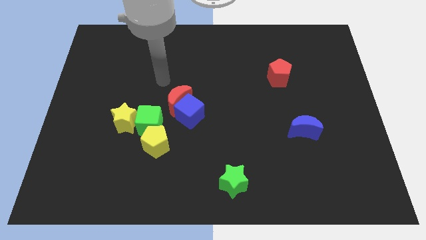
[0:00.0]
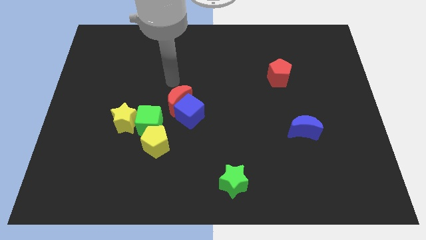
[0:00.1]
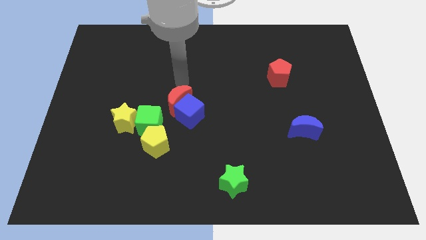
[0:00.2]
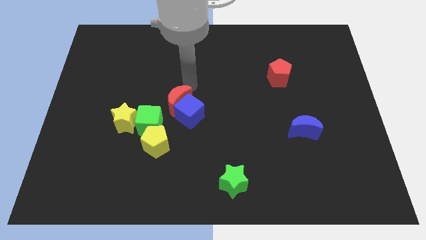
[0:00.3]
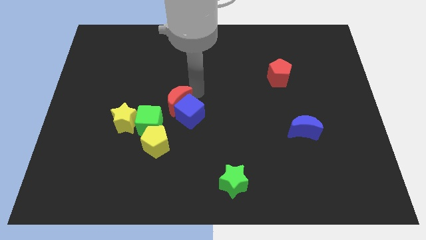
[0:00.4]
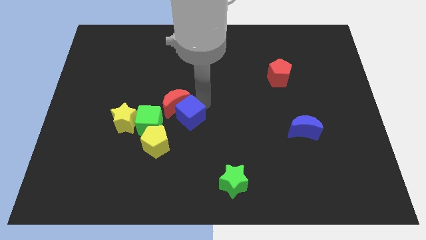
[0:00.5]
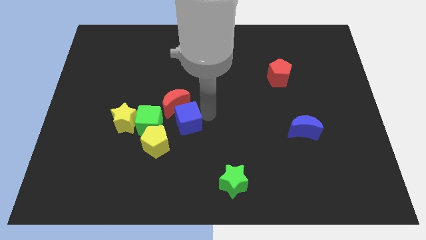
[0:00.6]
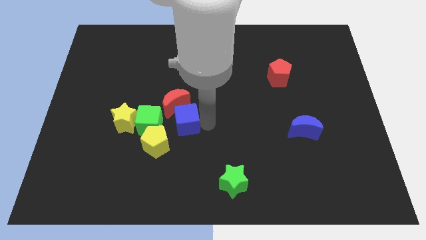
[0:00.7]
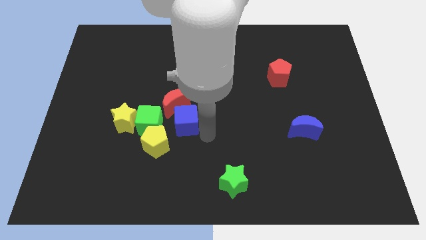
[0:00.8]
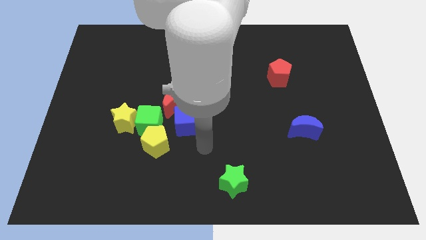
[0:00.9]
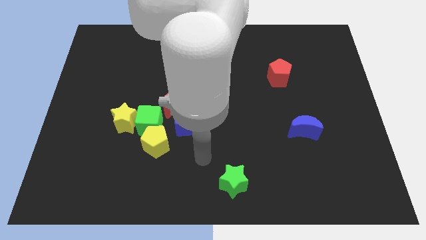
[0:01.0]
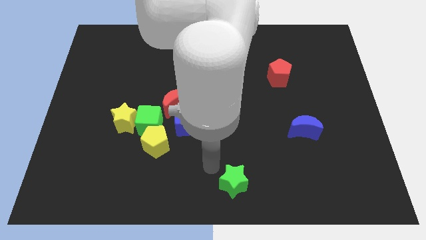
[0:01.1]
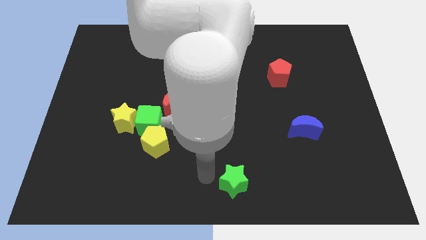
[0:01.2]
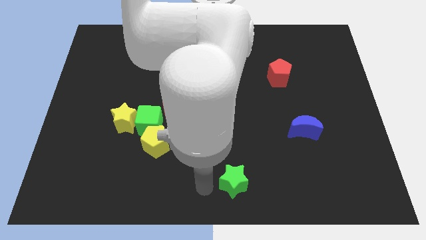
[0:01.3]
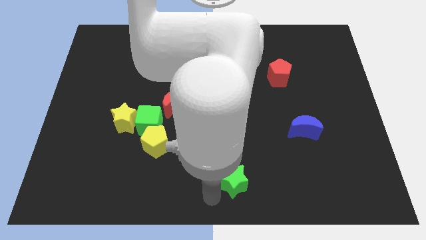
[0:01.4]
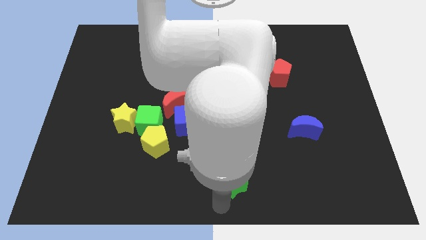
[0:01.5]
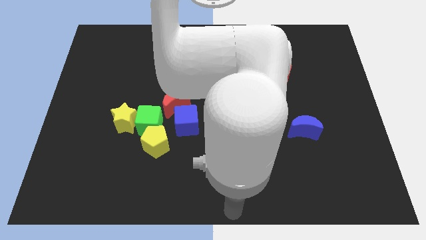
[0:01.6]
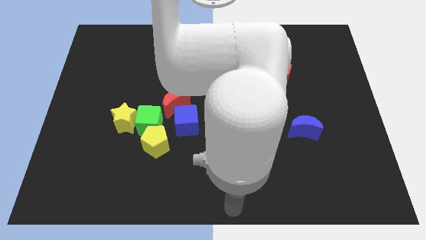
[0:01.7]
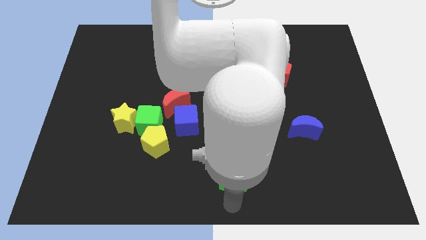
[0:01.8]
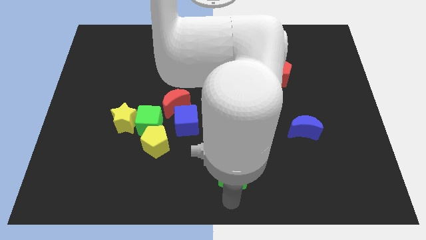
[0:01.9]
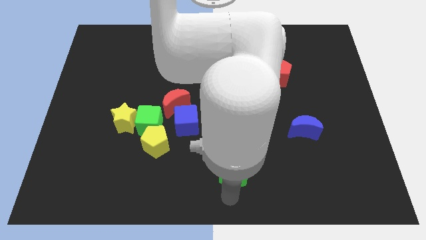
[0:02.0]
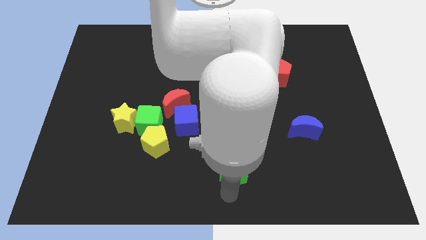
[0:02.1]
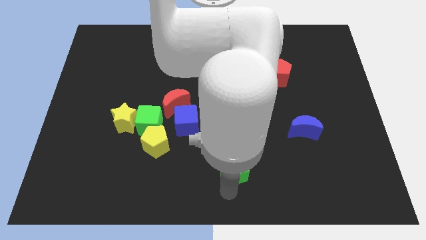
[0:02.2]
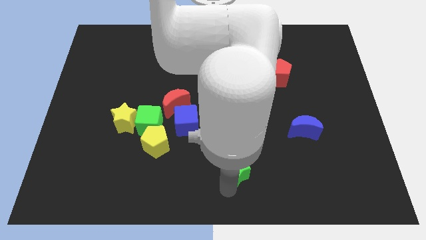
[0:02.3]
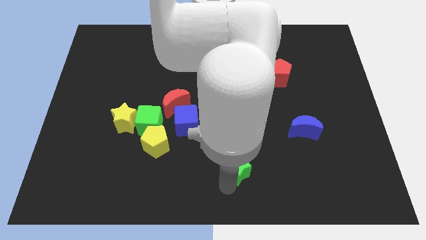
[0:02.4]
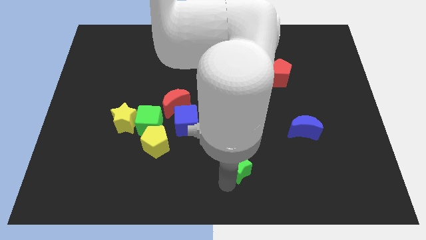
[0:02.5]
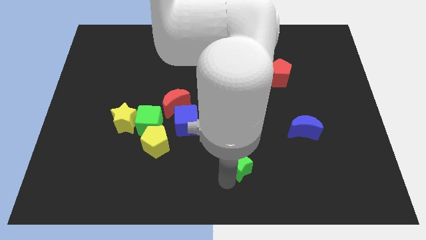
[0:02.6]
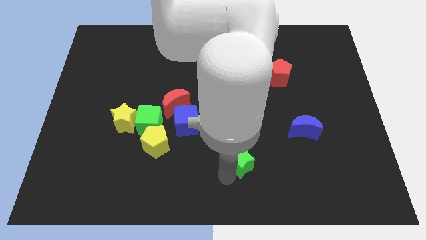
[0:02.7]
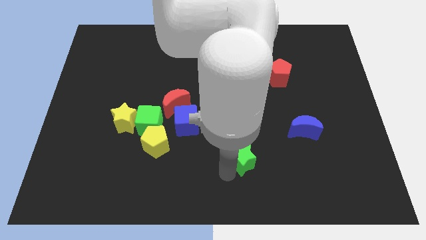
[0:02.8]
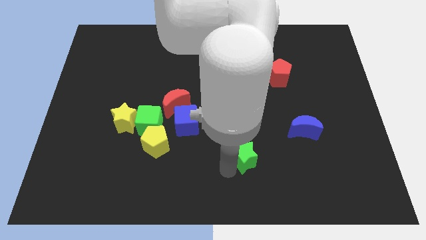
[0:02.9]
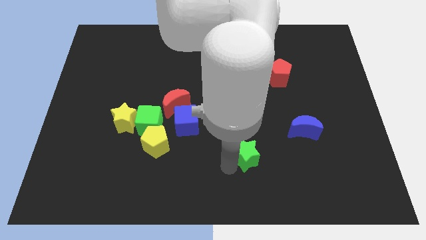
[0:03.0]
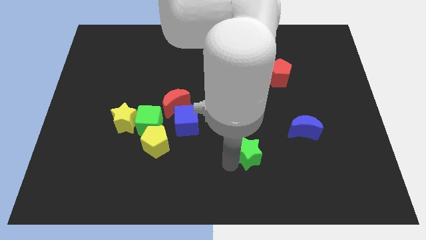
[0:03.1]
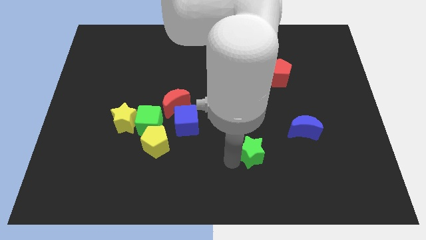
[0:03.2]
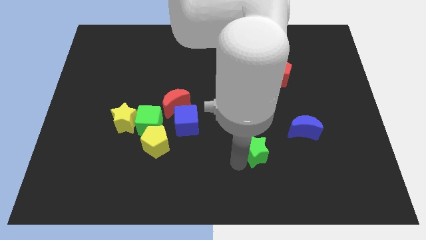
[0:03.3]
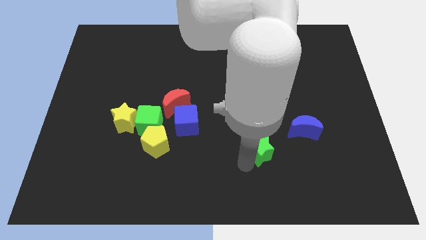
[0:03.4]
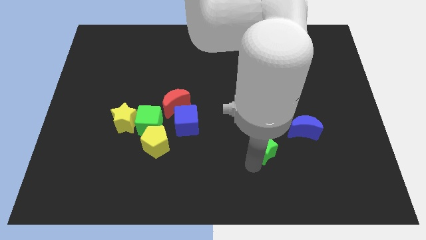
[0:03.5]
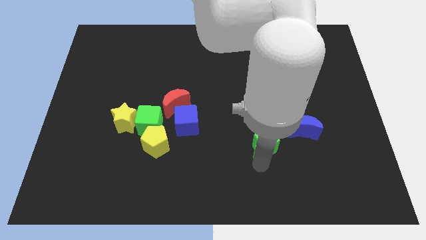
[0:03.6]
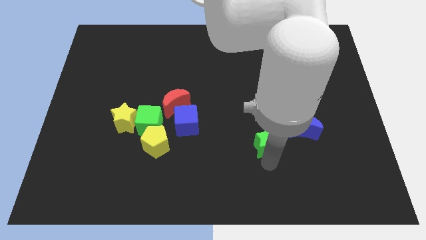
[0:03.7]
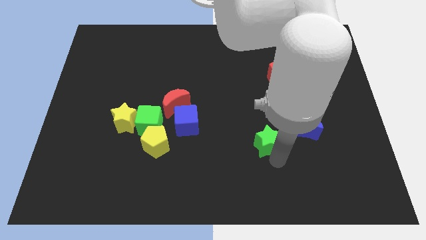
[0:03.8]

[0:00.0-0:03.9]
push the green star a little upwards

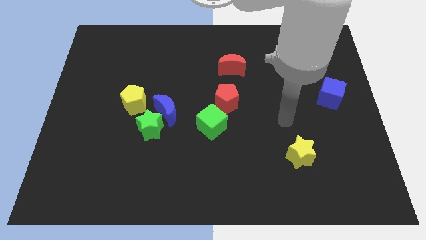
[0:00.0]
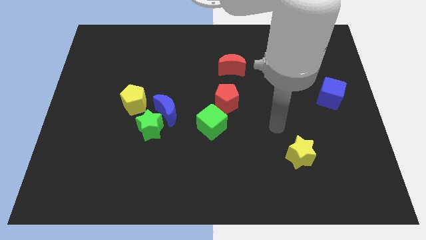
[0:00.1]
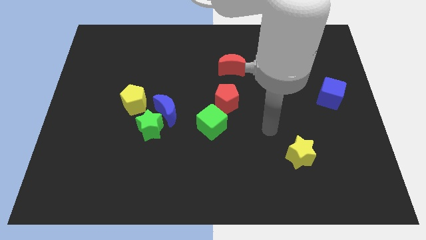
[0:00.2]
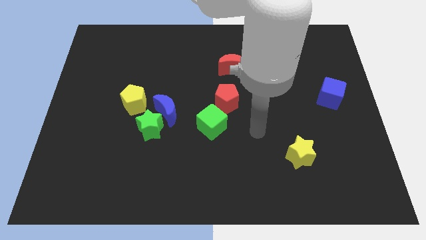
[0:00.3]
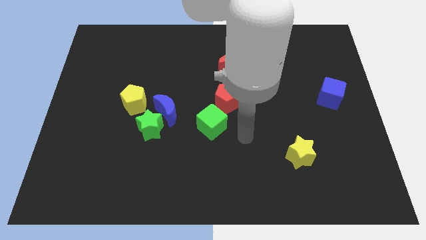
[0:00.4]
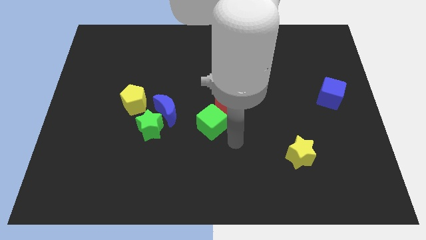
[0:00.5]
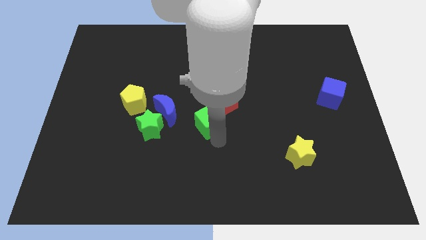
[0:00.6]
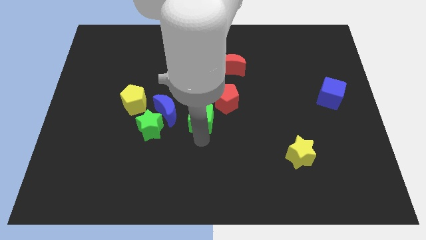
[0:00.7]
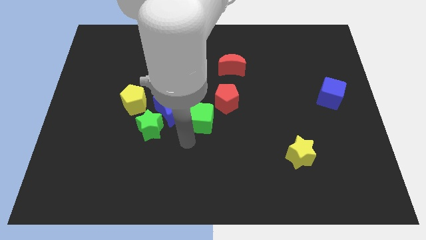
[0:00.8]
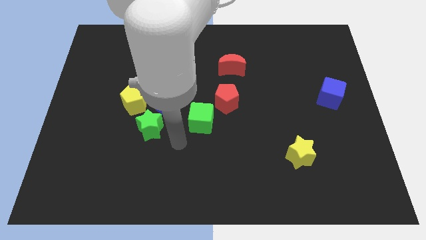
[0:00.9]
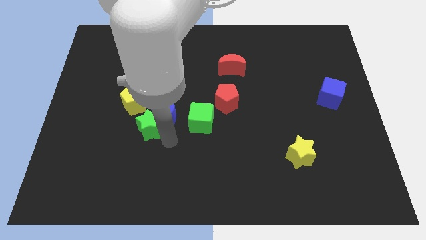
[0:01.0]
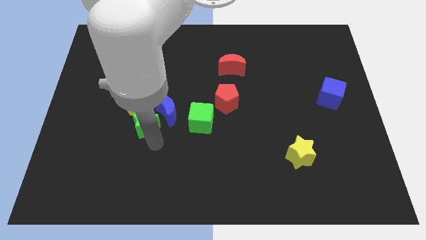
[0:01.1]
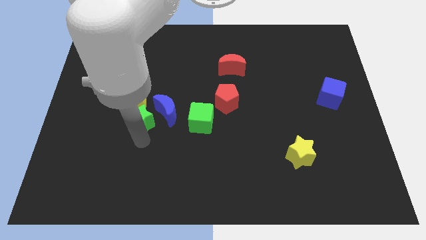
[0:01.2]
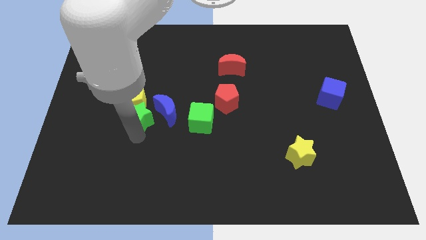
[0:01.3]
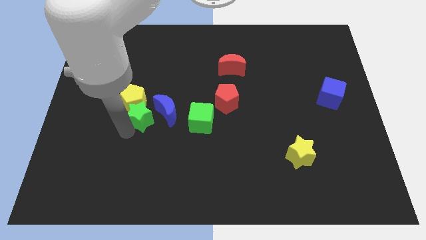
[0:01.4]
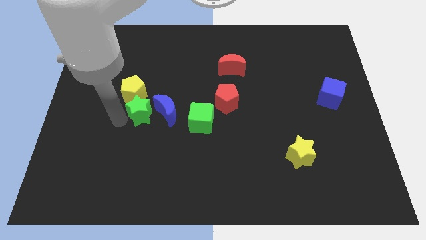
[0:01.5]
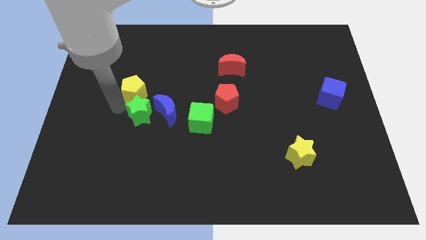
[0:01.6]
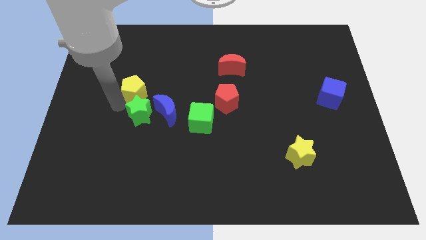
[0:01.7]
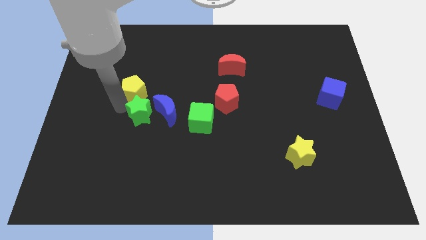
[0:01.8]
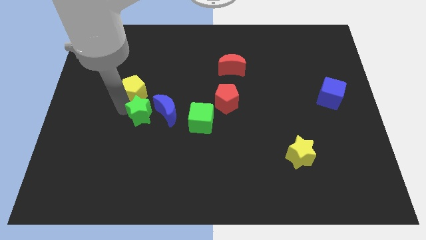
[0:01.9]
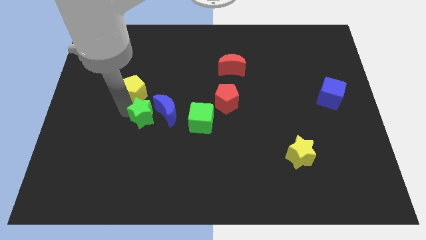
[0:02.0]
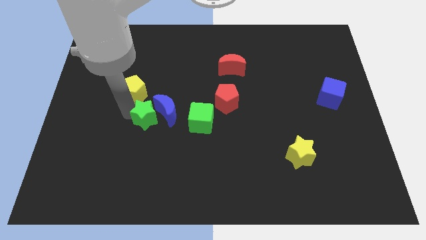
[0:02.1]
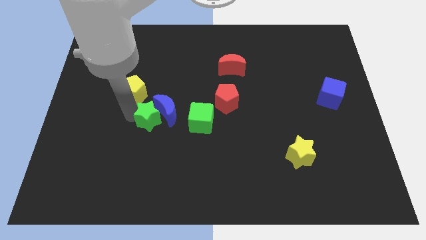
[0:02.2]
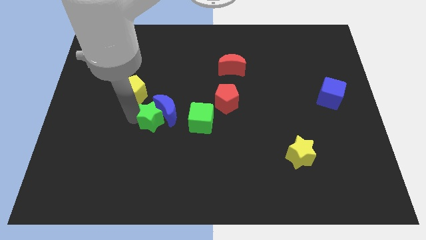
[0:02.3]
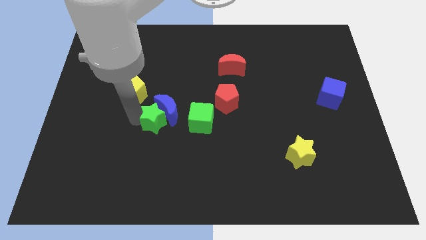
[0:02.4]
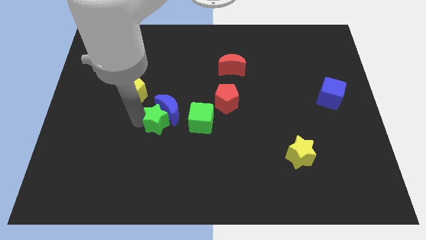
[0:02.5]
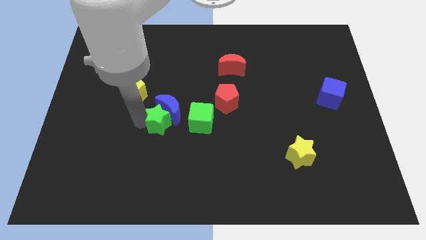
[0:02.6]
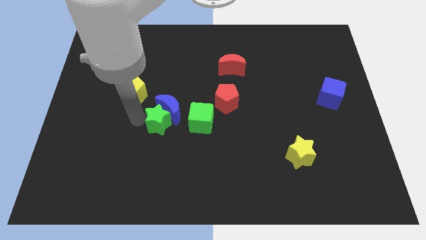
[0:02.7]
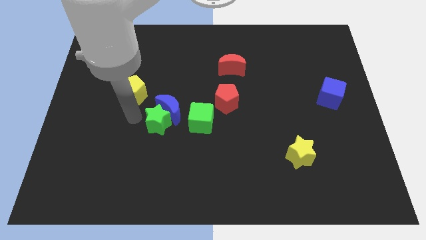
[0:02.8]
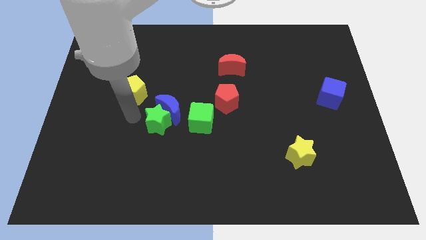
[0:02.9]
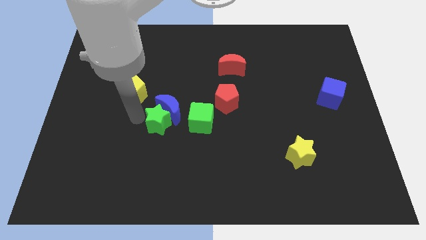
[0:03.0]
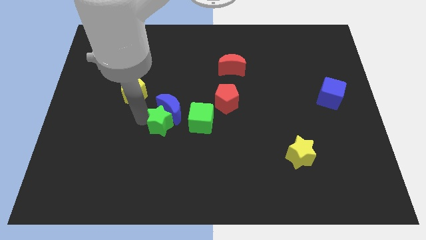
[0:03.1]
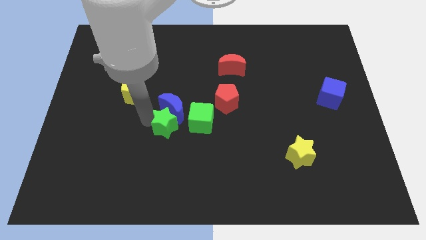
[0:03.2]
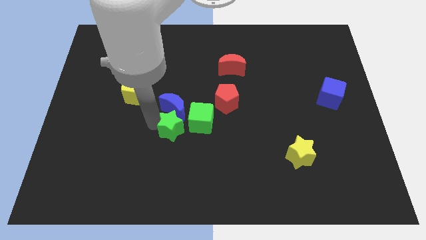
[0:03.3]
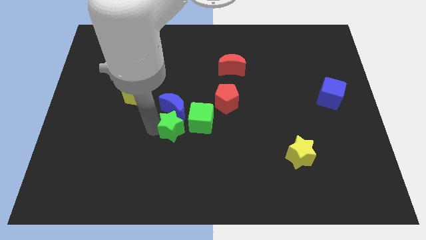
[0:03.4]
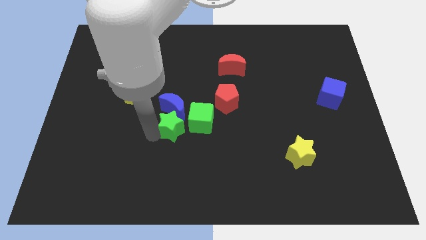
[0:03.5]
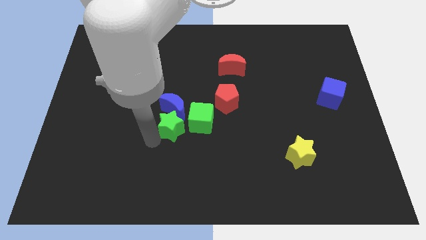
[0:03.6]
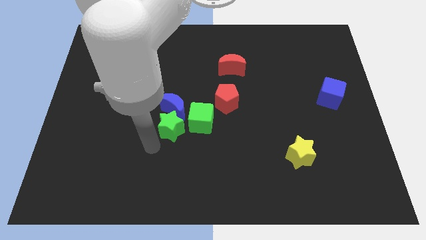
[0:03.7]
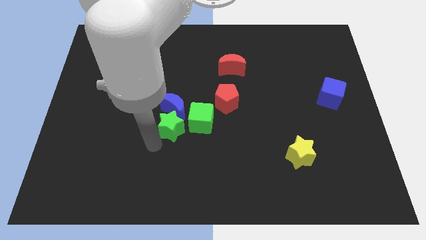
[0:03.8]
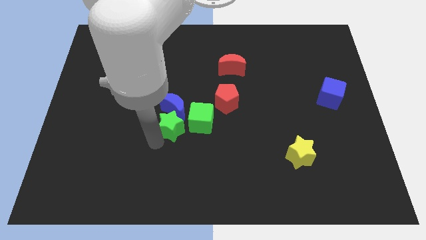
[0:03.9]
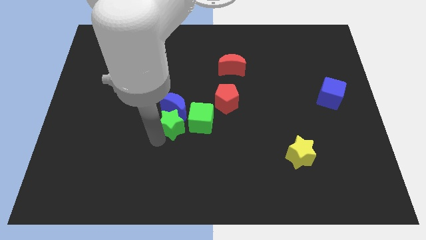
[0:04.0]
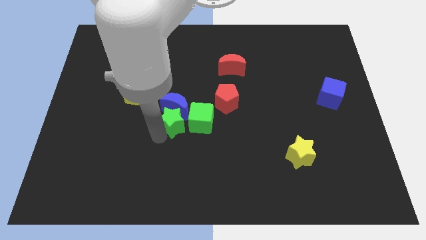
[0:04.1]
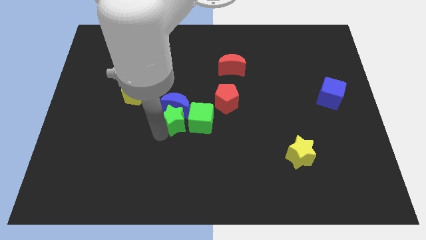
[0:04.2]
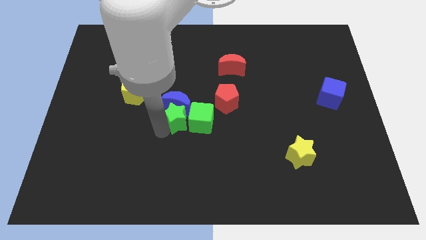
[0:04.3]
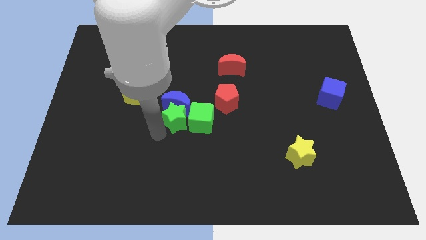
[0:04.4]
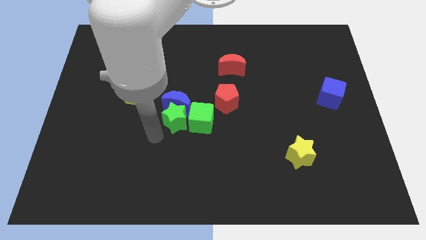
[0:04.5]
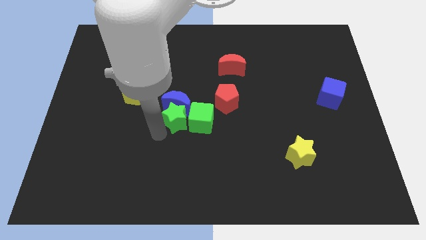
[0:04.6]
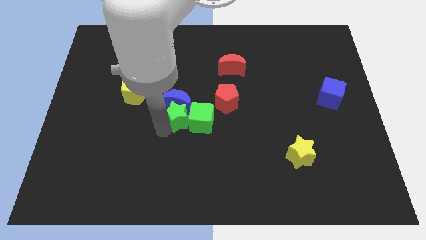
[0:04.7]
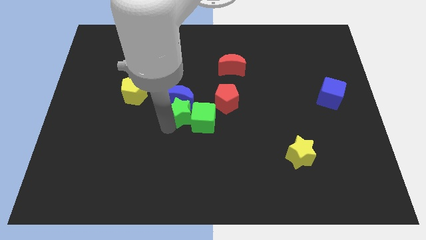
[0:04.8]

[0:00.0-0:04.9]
push the green star up and to the right diagonally slightly
